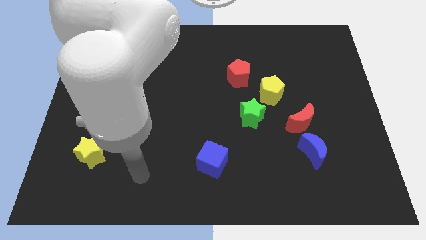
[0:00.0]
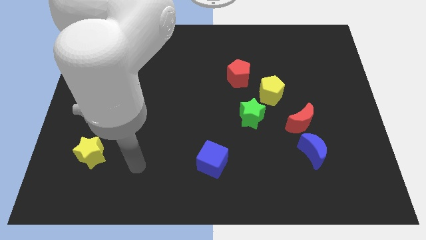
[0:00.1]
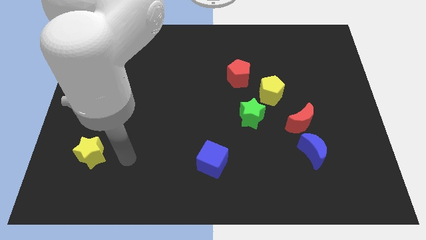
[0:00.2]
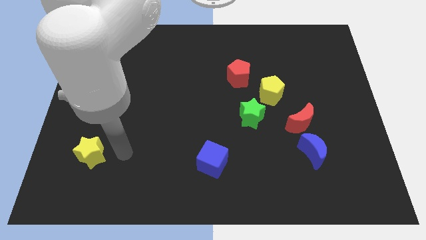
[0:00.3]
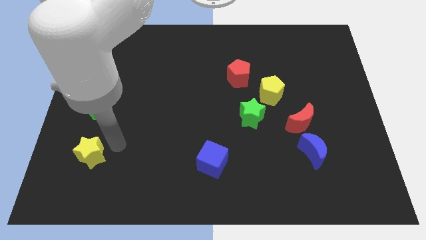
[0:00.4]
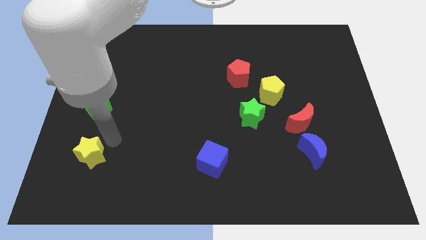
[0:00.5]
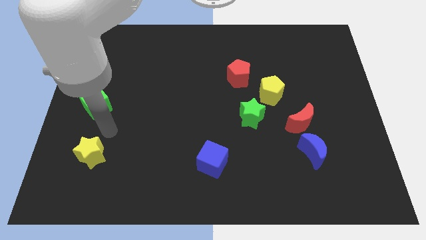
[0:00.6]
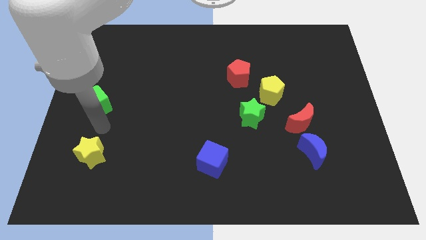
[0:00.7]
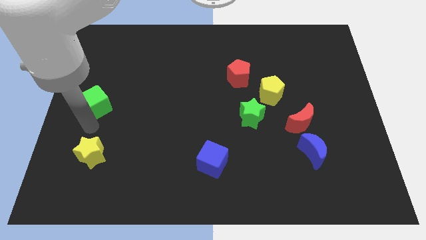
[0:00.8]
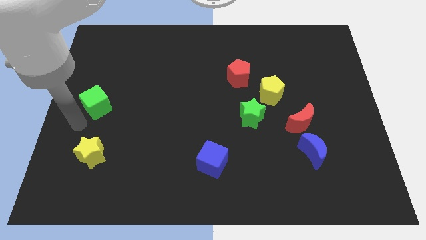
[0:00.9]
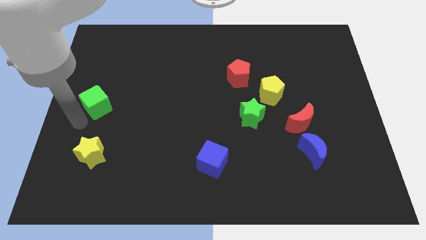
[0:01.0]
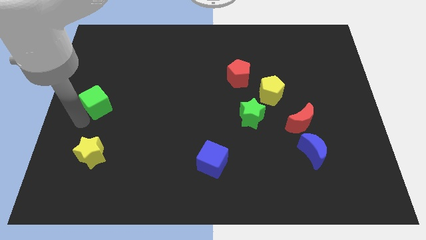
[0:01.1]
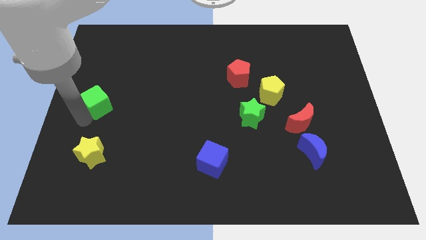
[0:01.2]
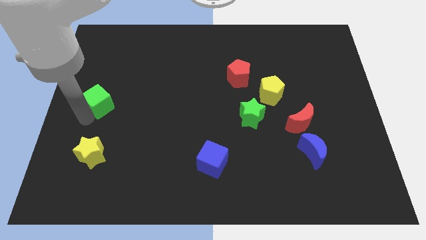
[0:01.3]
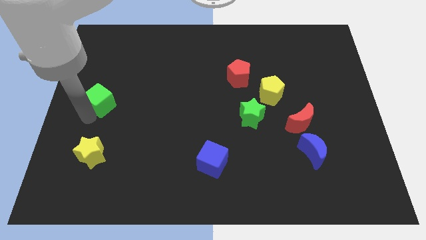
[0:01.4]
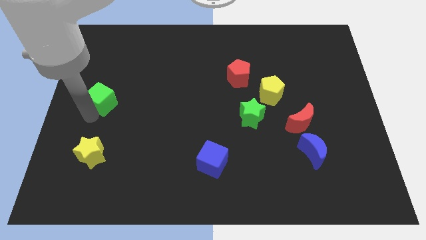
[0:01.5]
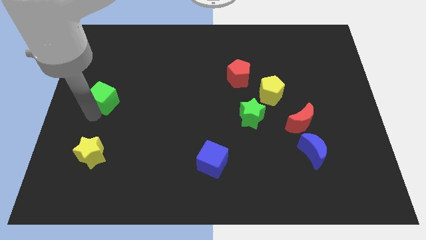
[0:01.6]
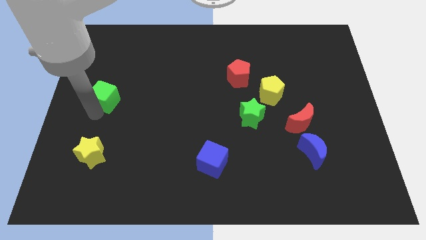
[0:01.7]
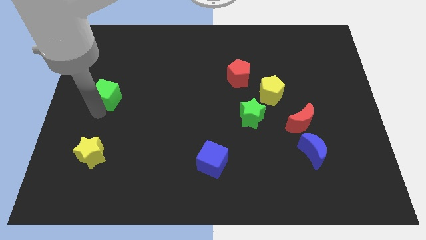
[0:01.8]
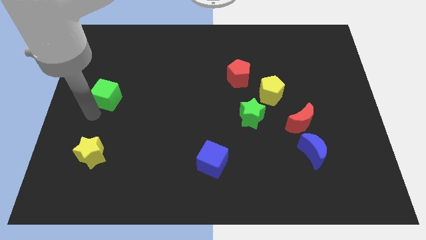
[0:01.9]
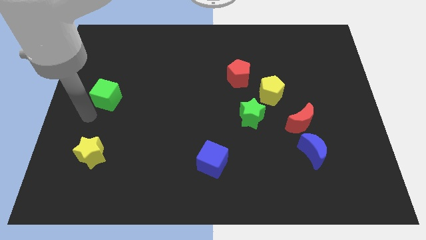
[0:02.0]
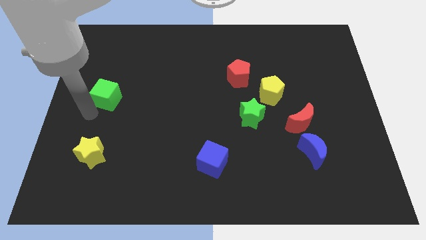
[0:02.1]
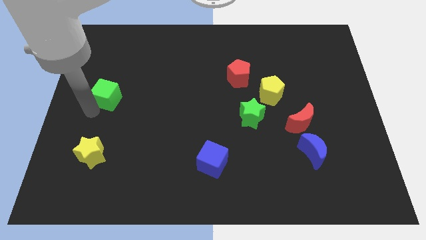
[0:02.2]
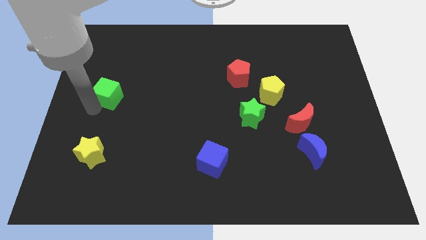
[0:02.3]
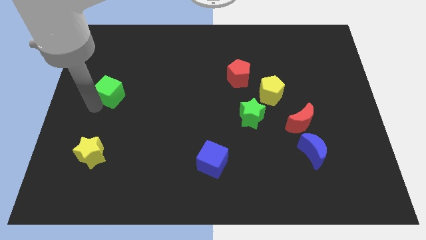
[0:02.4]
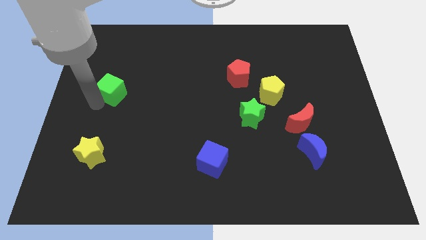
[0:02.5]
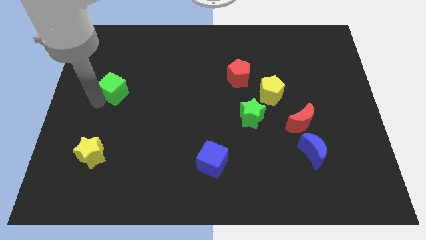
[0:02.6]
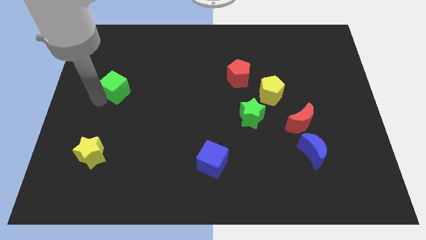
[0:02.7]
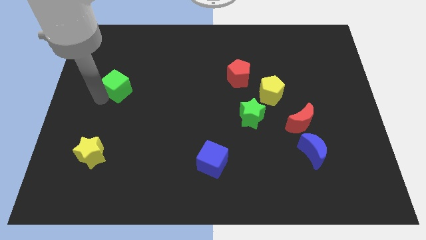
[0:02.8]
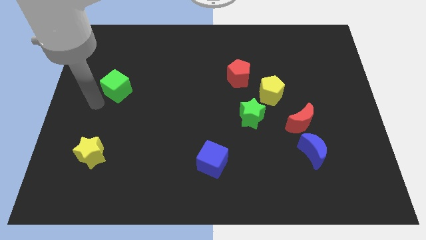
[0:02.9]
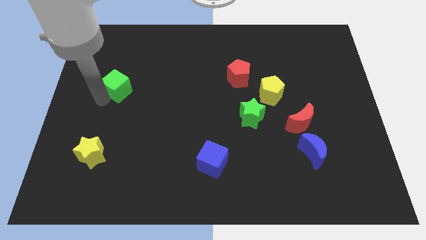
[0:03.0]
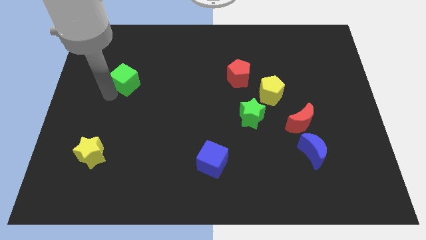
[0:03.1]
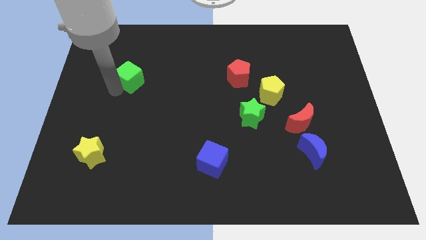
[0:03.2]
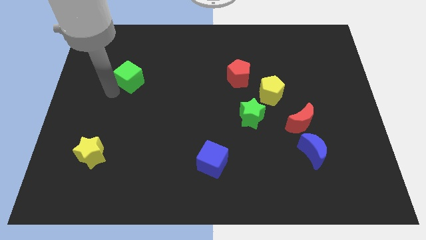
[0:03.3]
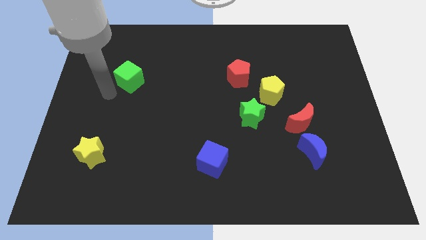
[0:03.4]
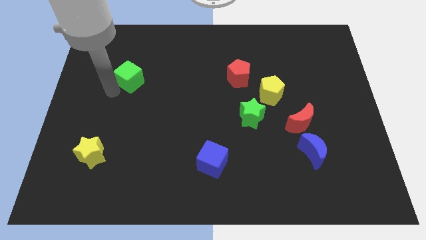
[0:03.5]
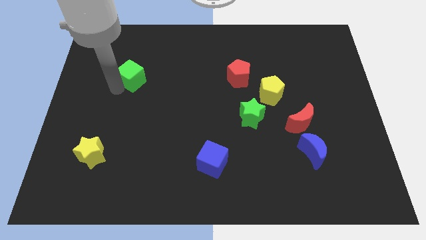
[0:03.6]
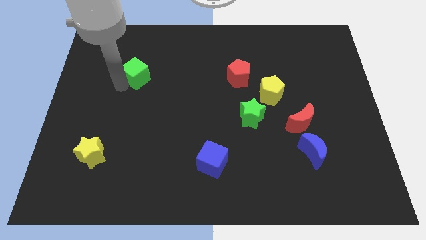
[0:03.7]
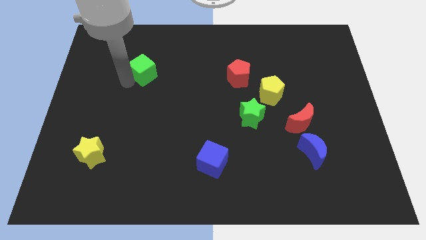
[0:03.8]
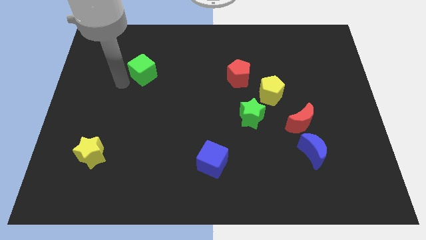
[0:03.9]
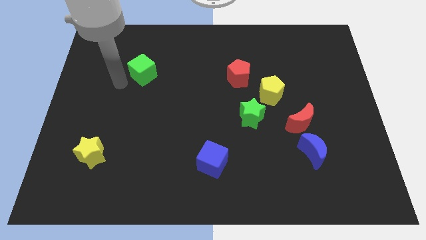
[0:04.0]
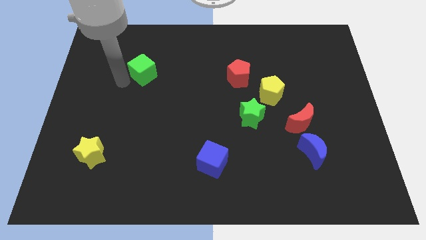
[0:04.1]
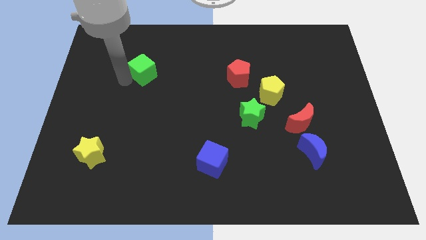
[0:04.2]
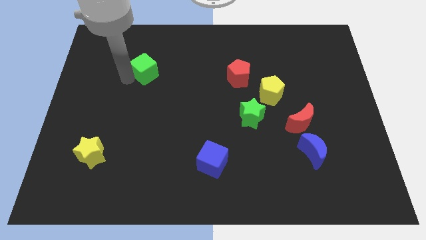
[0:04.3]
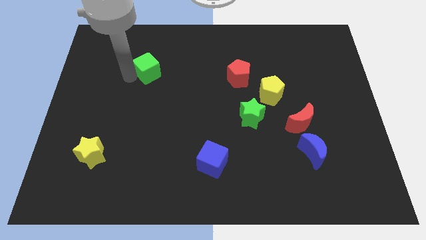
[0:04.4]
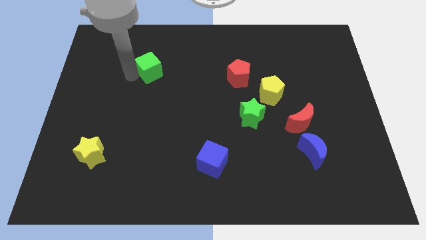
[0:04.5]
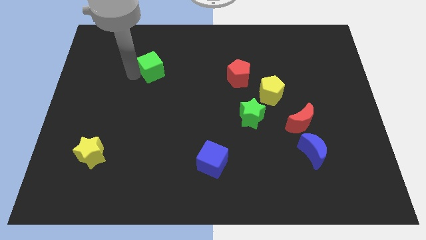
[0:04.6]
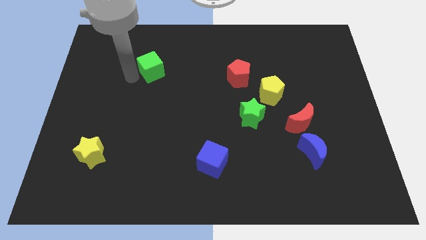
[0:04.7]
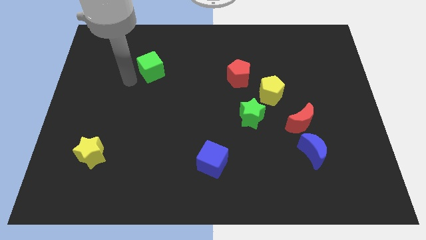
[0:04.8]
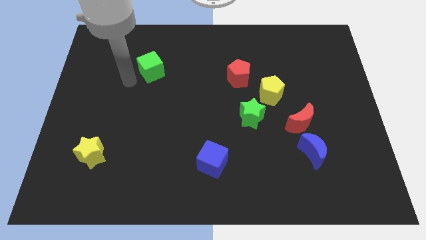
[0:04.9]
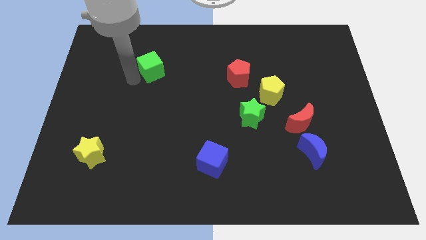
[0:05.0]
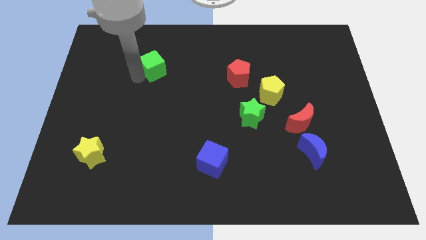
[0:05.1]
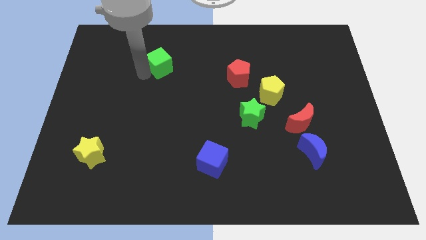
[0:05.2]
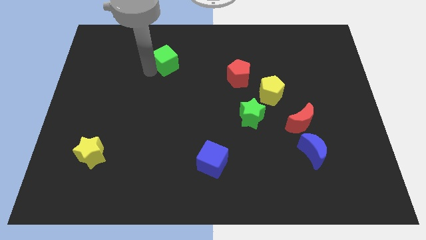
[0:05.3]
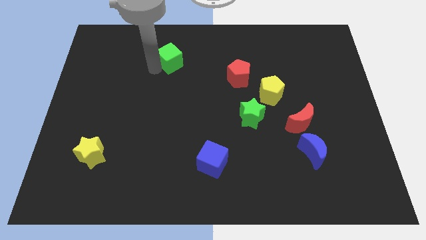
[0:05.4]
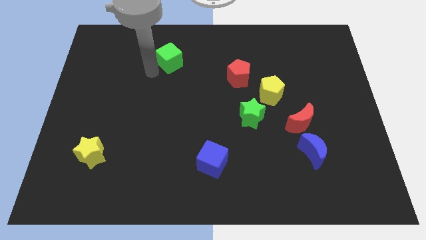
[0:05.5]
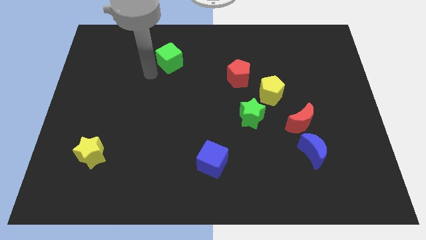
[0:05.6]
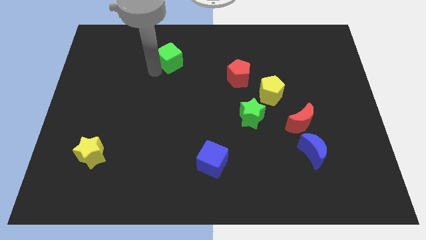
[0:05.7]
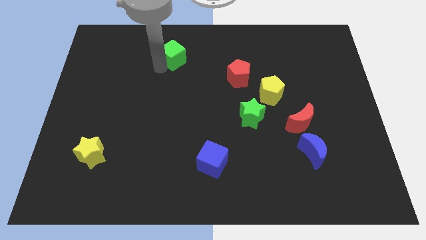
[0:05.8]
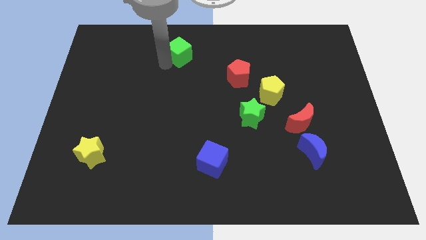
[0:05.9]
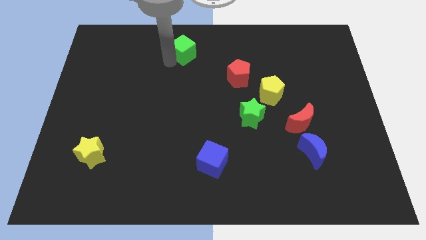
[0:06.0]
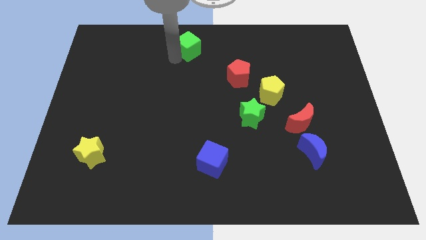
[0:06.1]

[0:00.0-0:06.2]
push the green cube to the top

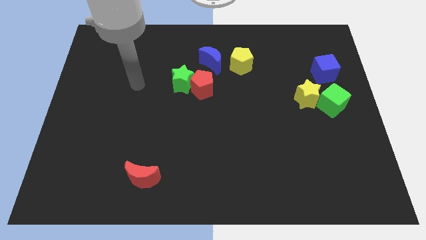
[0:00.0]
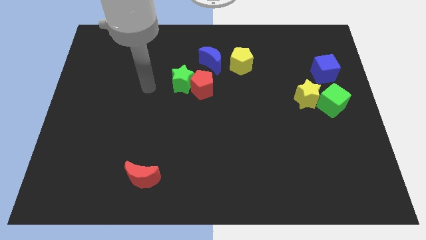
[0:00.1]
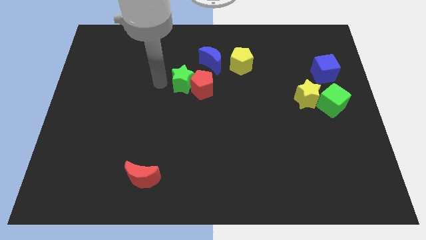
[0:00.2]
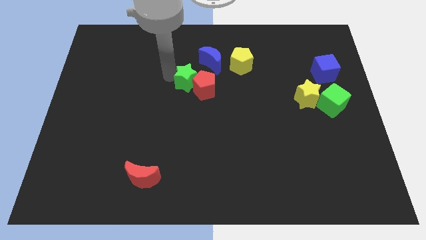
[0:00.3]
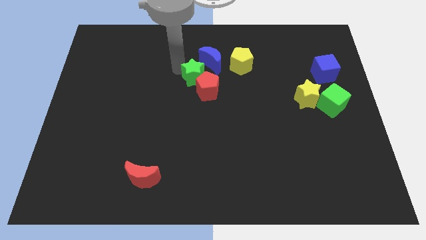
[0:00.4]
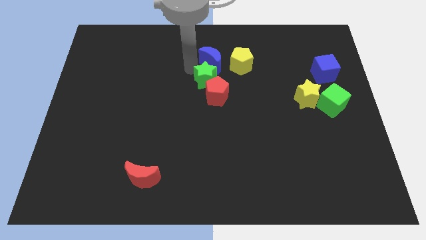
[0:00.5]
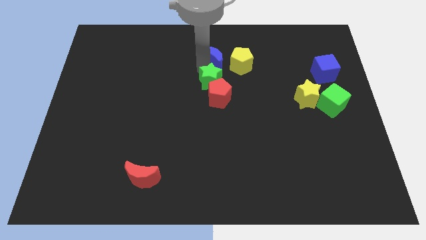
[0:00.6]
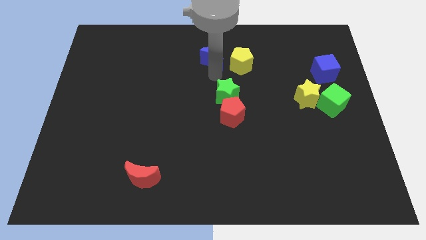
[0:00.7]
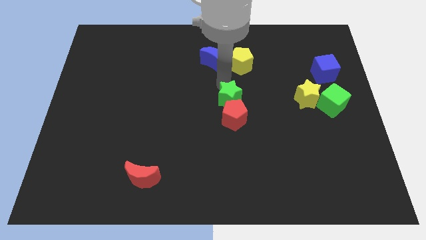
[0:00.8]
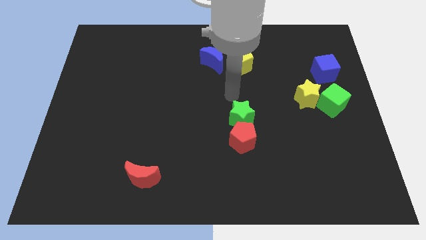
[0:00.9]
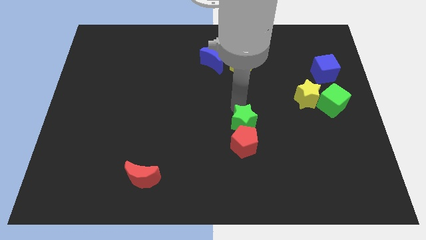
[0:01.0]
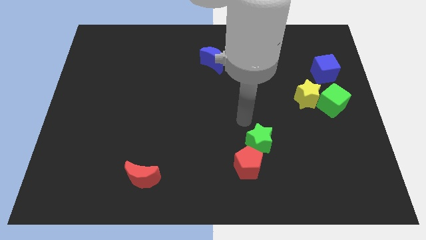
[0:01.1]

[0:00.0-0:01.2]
push the red pentagon to the bottom side
